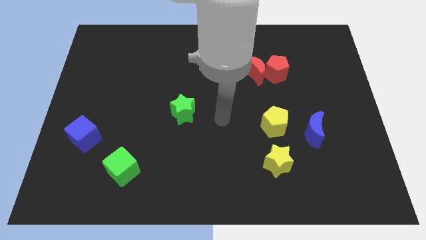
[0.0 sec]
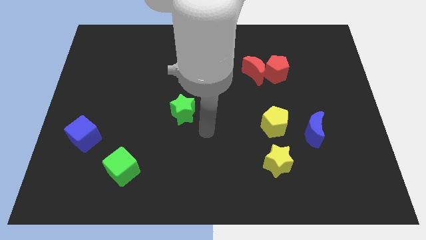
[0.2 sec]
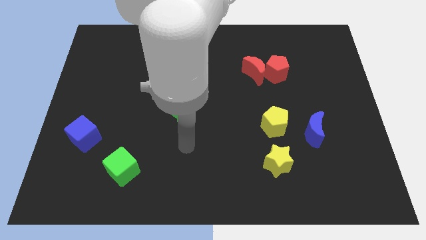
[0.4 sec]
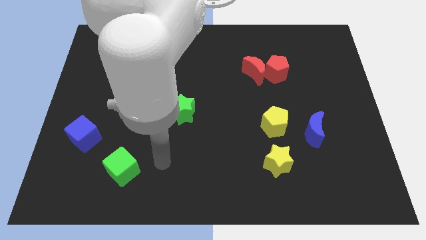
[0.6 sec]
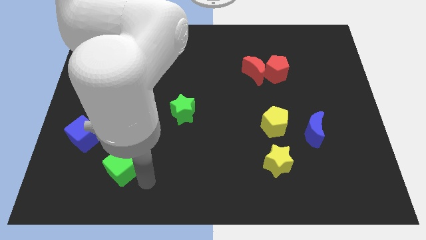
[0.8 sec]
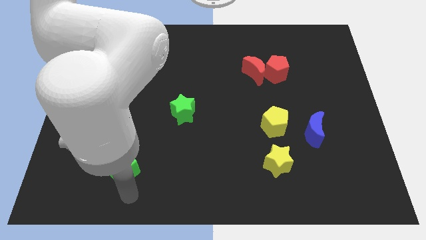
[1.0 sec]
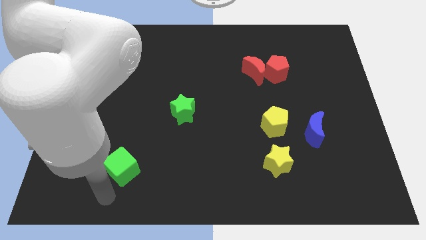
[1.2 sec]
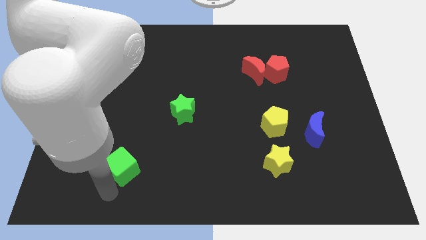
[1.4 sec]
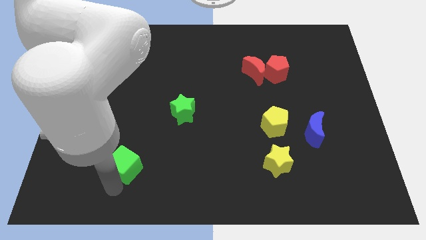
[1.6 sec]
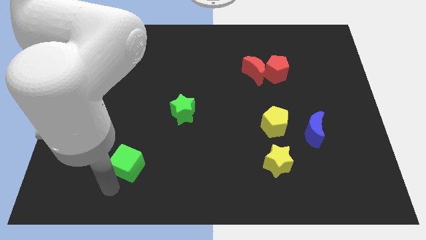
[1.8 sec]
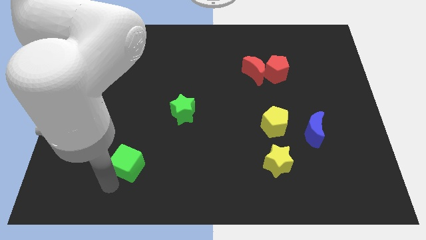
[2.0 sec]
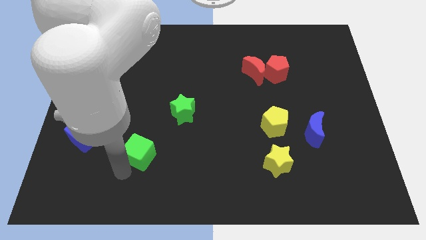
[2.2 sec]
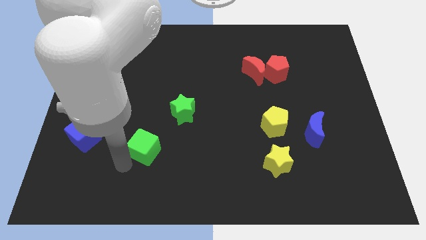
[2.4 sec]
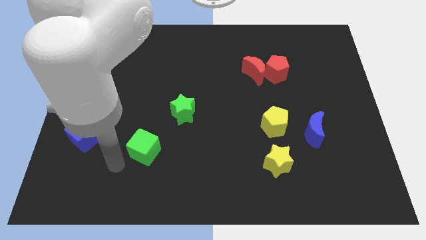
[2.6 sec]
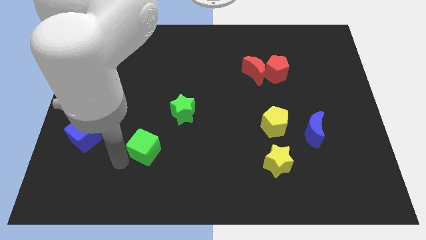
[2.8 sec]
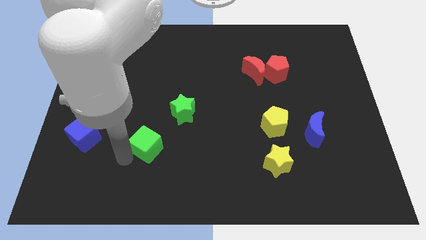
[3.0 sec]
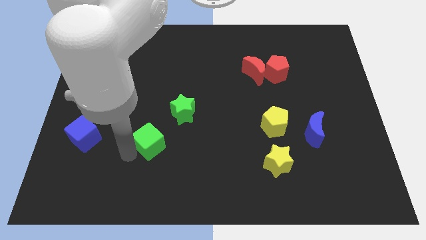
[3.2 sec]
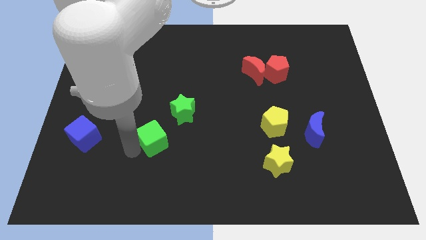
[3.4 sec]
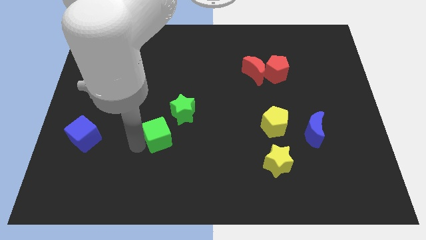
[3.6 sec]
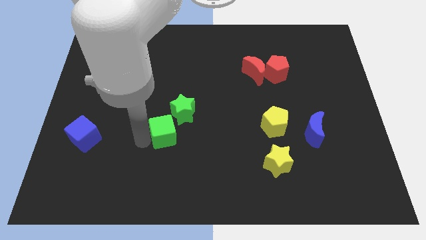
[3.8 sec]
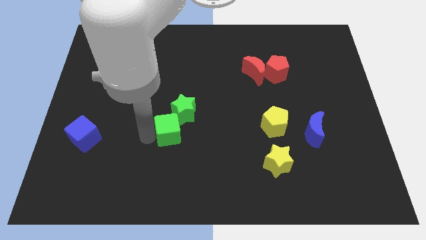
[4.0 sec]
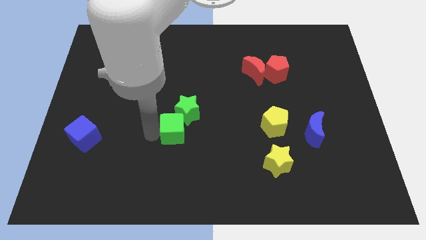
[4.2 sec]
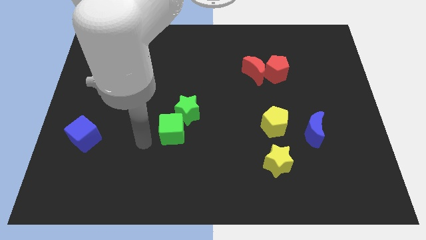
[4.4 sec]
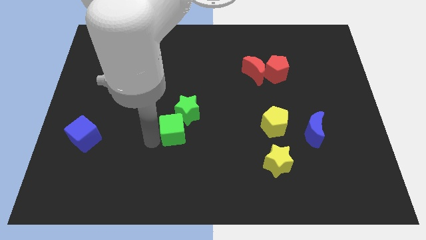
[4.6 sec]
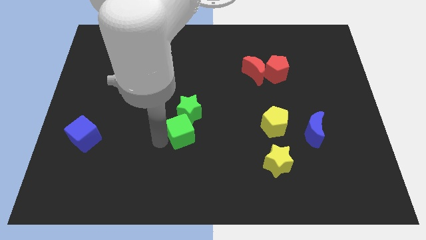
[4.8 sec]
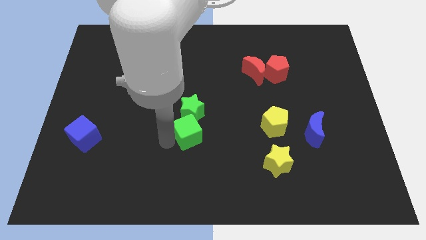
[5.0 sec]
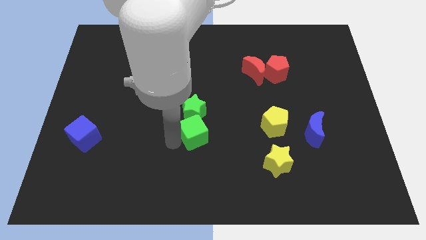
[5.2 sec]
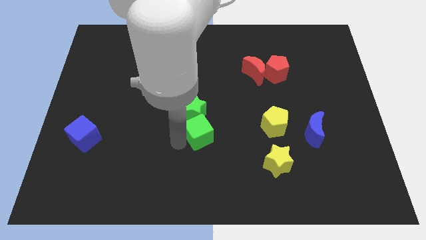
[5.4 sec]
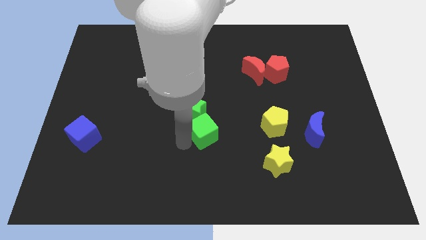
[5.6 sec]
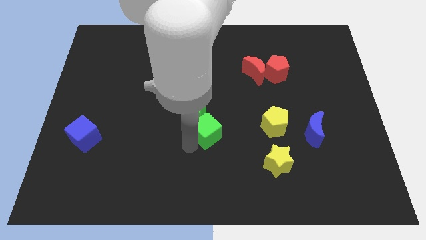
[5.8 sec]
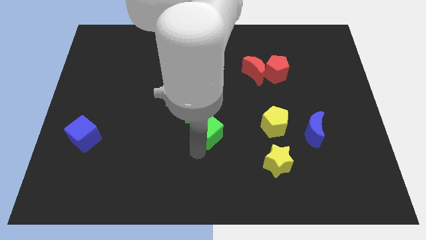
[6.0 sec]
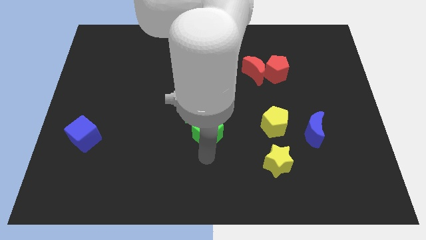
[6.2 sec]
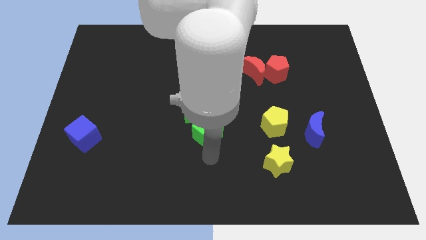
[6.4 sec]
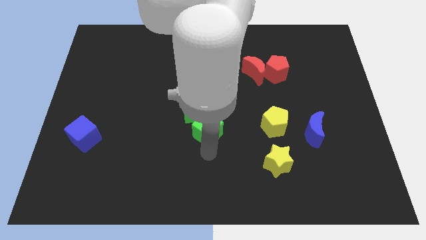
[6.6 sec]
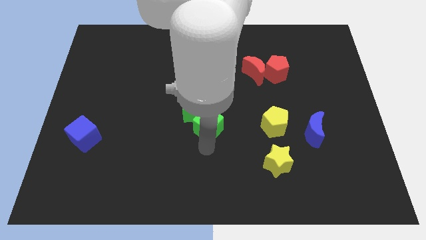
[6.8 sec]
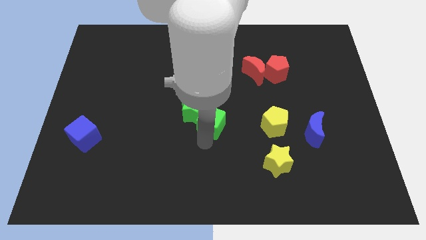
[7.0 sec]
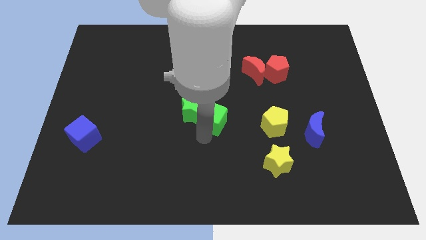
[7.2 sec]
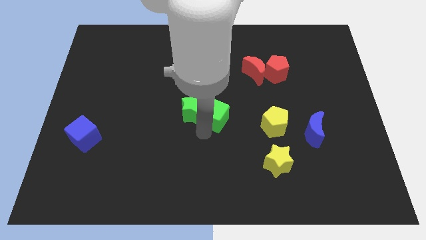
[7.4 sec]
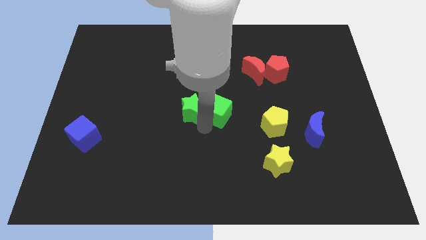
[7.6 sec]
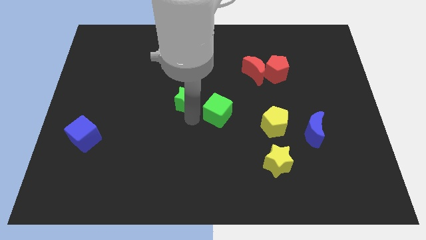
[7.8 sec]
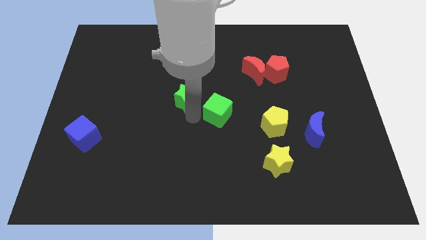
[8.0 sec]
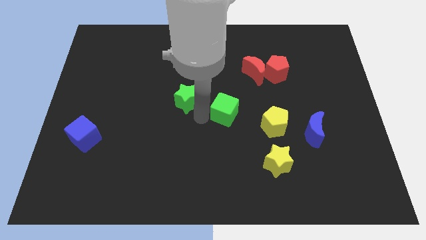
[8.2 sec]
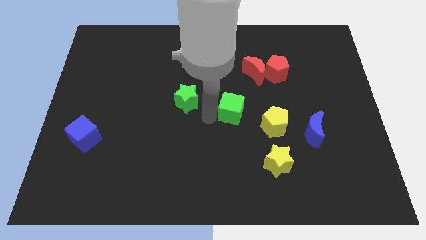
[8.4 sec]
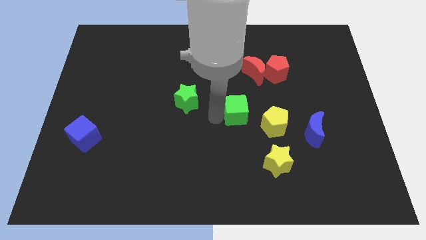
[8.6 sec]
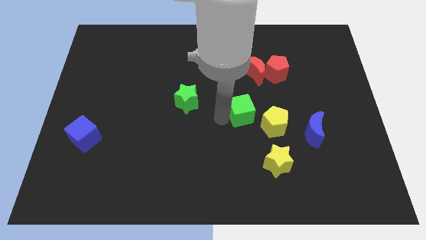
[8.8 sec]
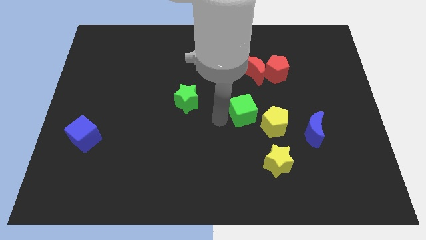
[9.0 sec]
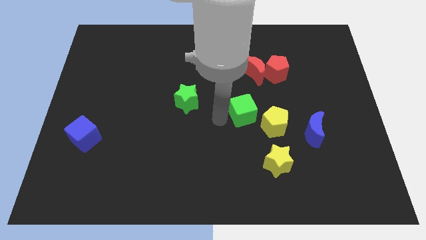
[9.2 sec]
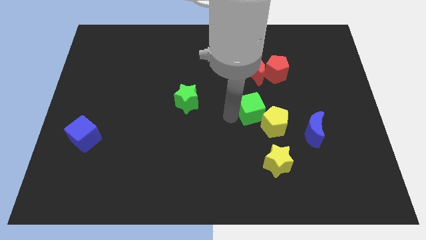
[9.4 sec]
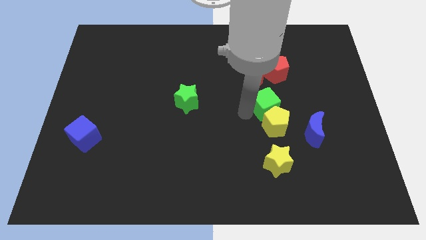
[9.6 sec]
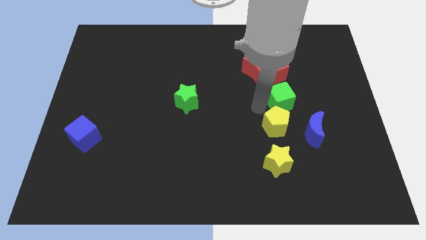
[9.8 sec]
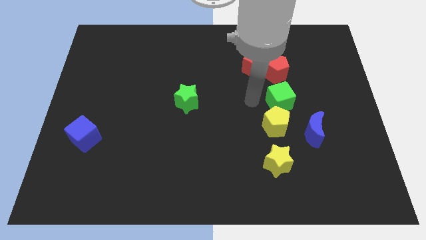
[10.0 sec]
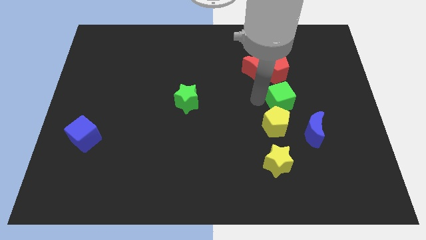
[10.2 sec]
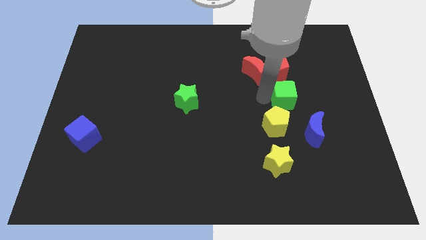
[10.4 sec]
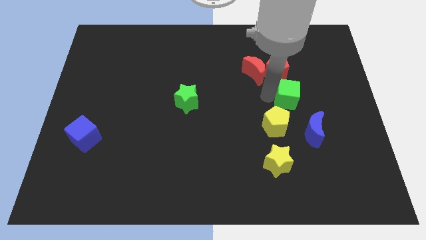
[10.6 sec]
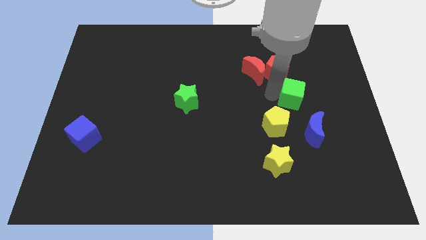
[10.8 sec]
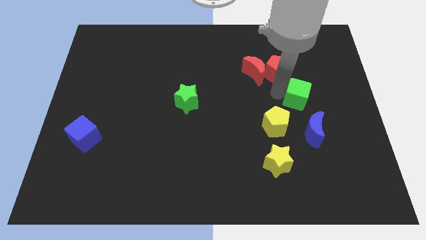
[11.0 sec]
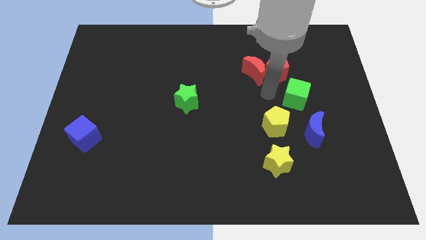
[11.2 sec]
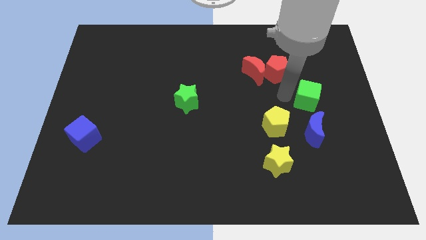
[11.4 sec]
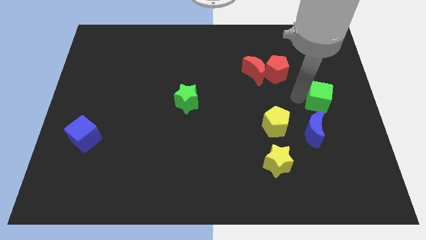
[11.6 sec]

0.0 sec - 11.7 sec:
move the green cube to the right side
